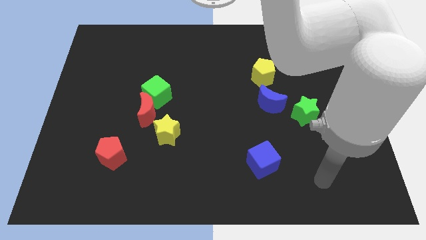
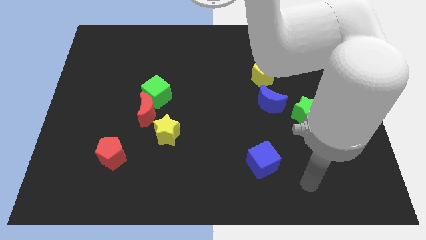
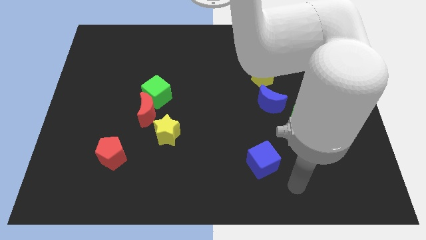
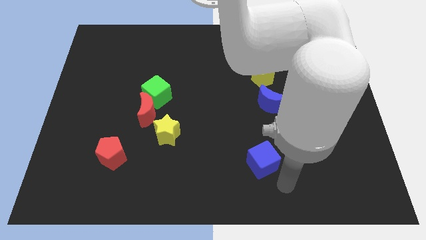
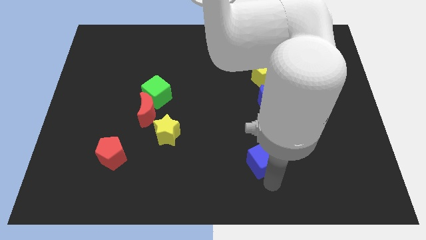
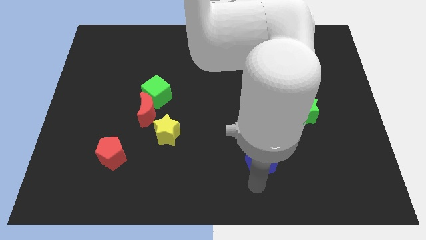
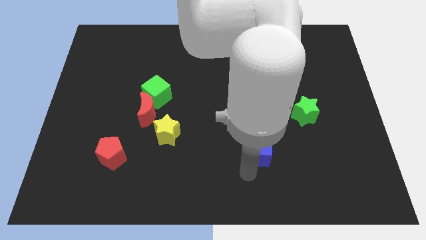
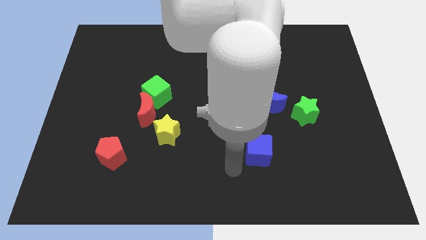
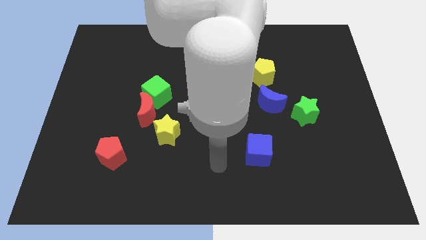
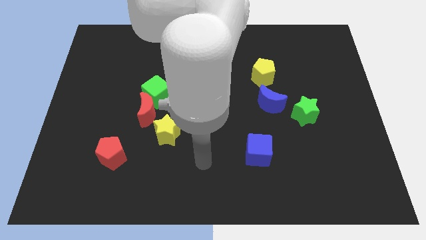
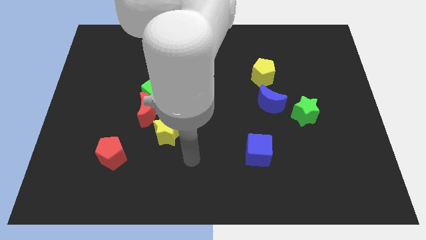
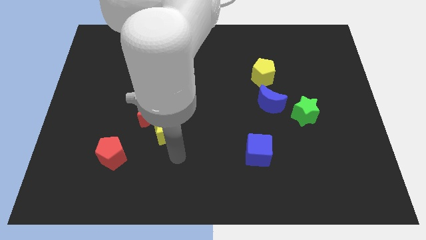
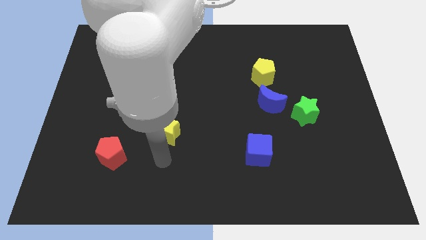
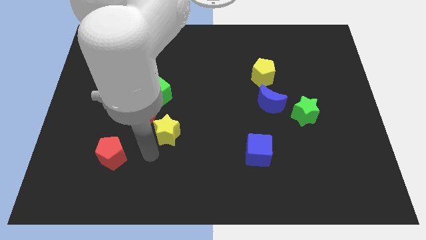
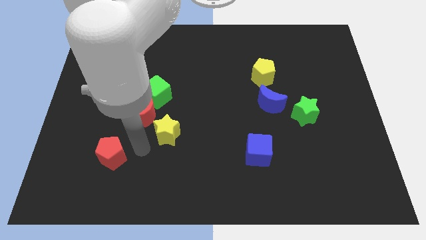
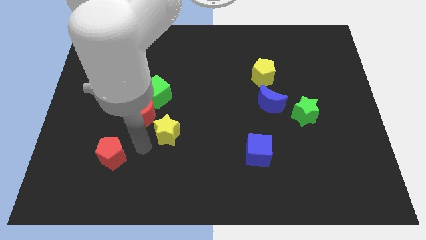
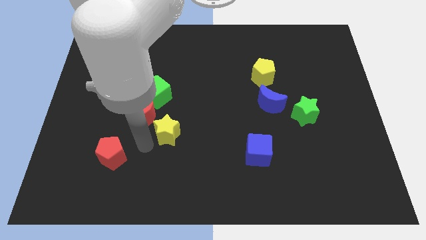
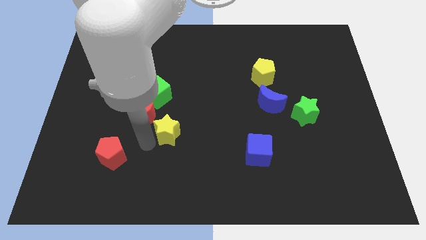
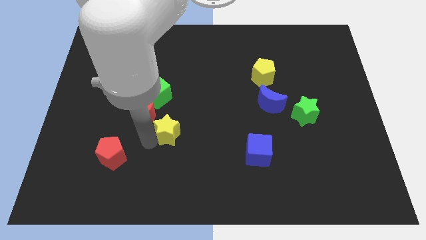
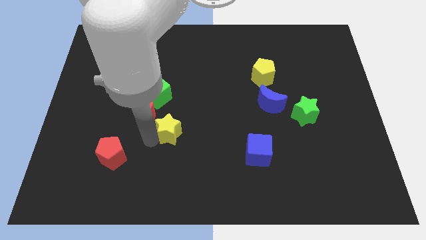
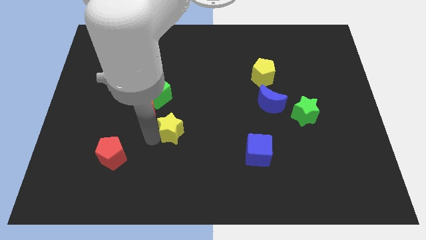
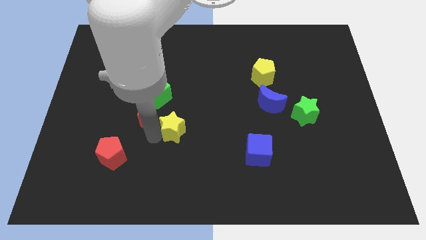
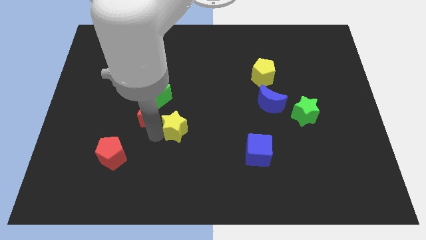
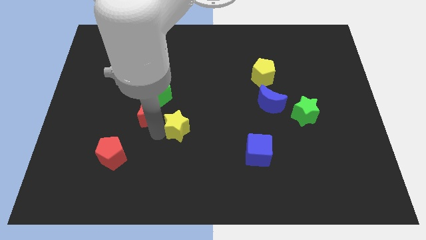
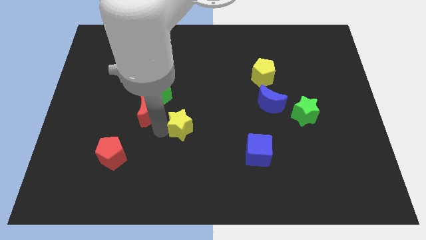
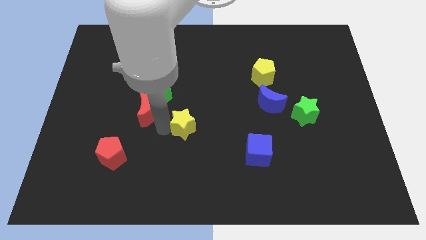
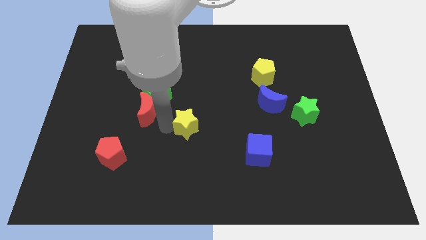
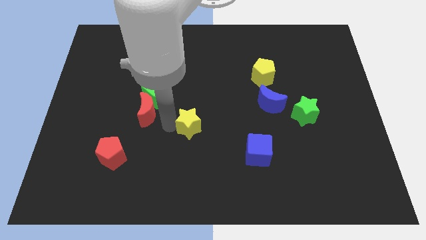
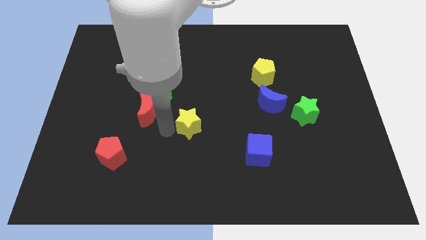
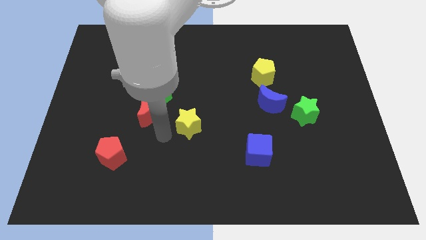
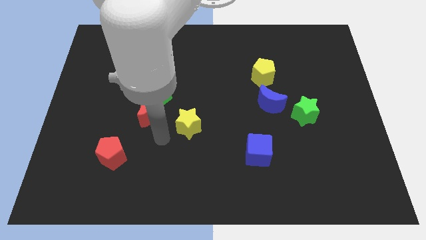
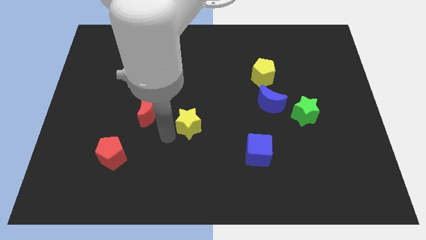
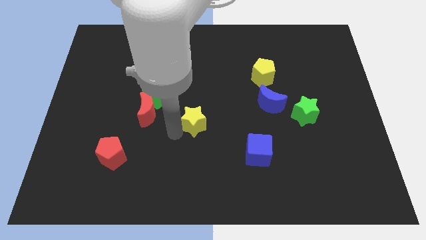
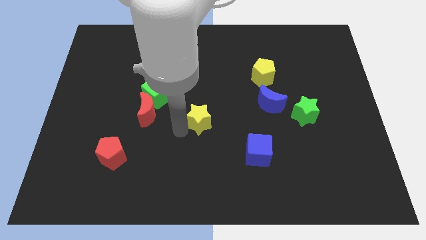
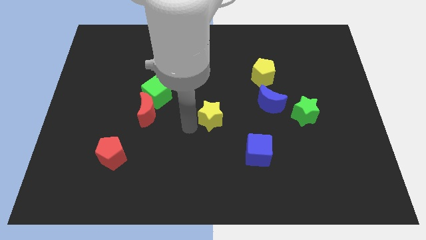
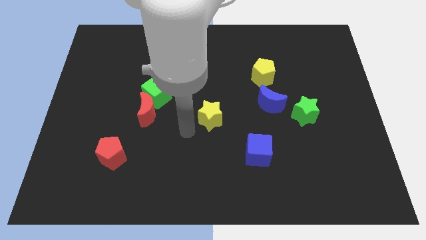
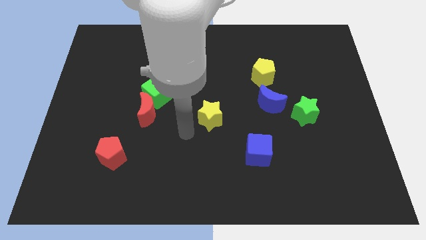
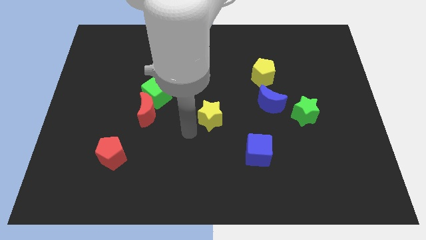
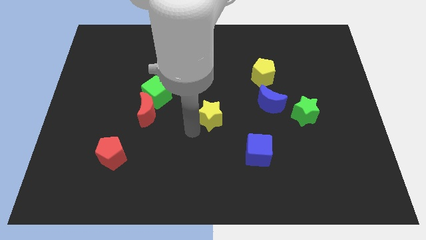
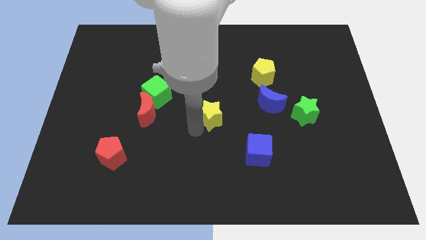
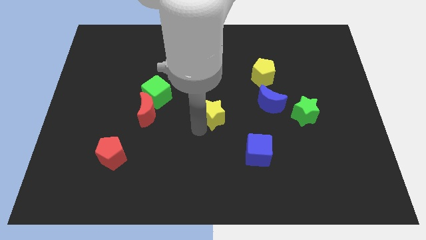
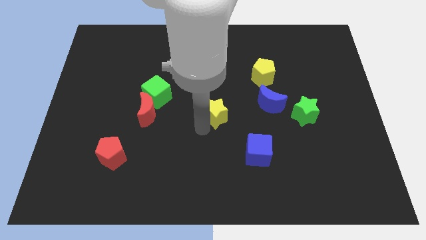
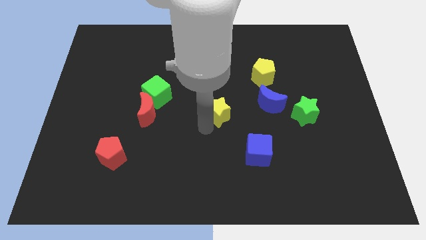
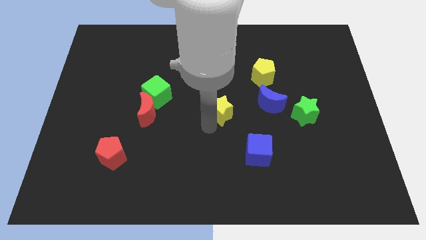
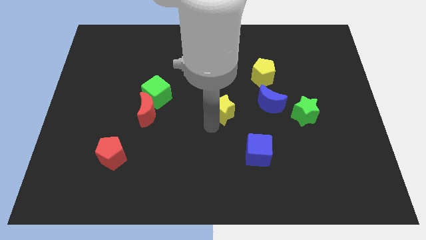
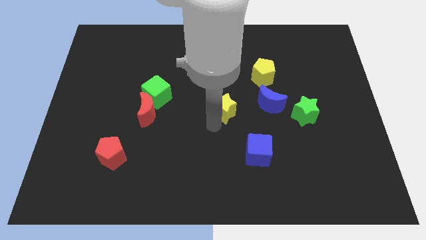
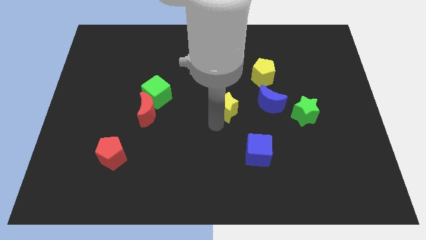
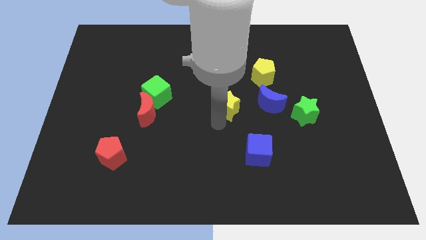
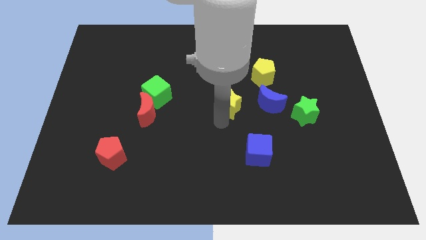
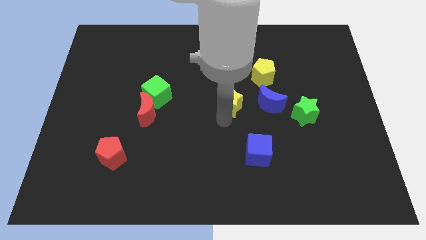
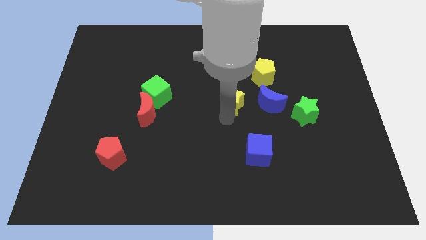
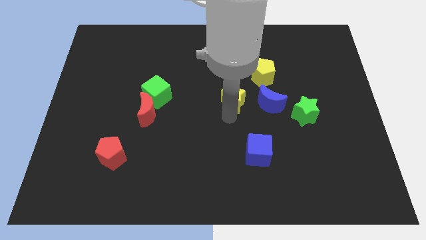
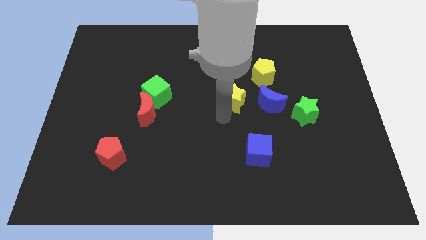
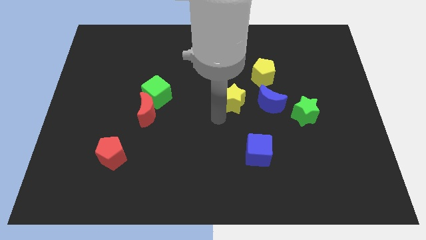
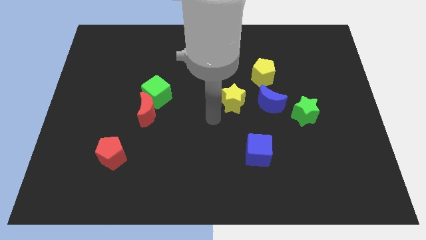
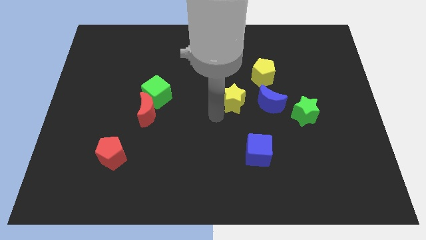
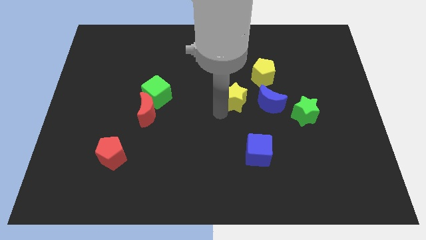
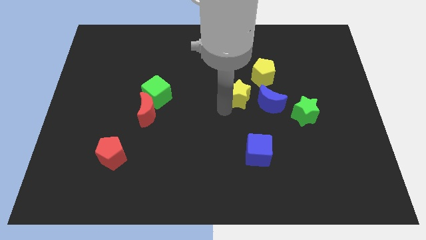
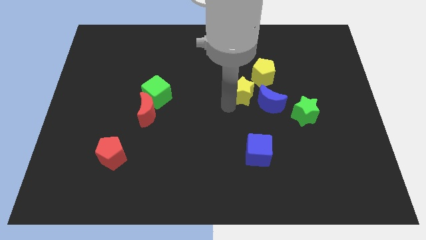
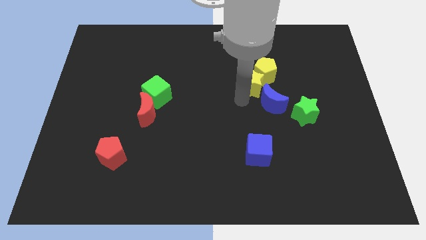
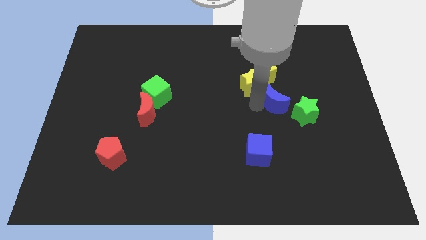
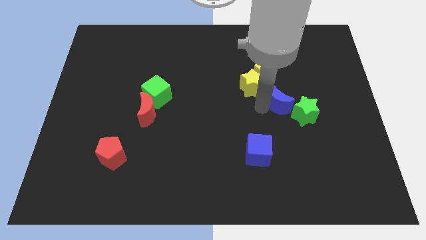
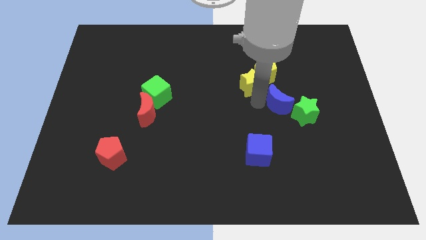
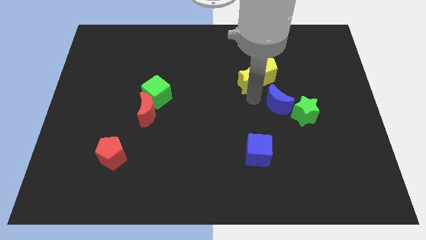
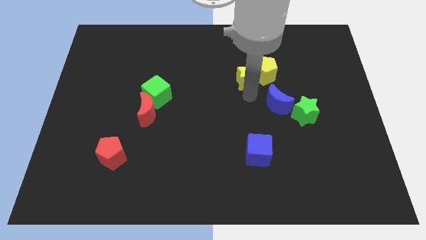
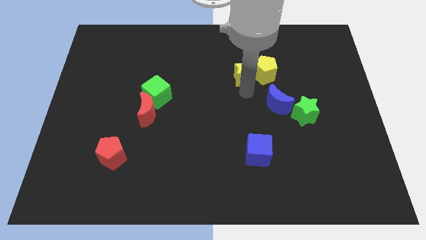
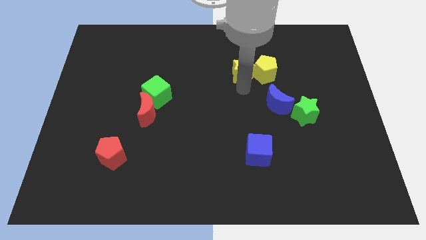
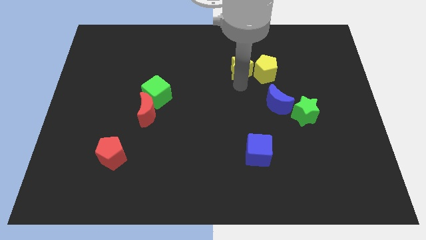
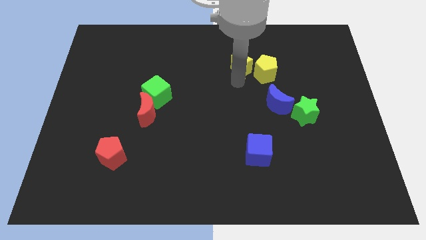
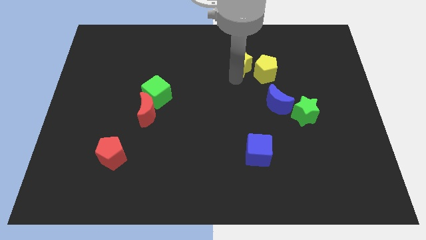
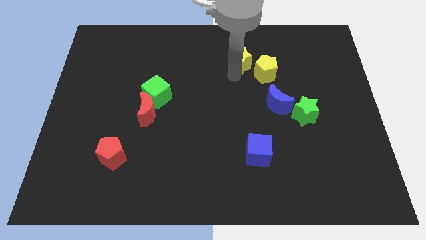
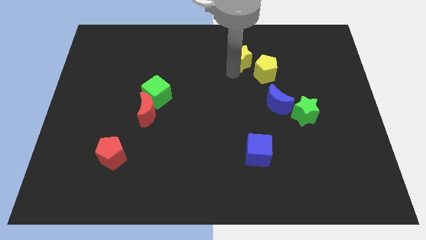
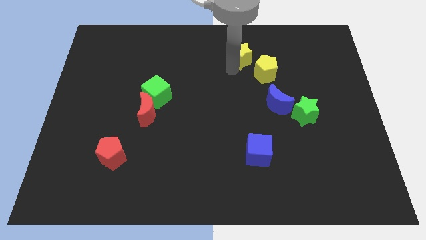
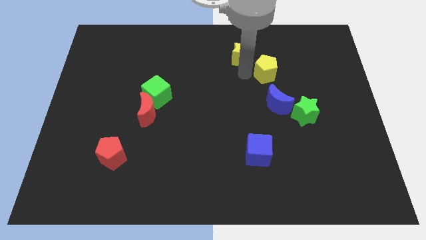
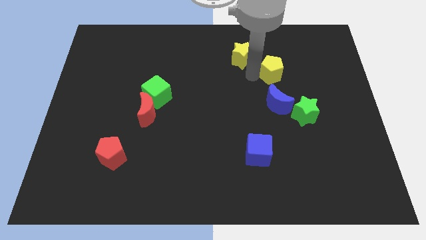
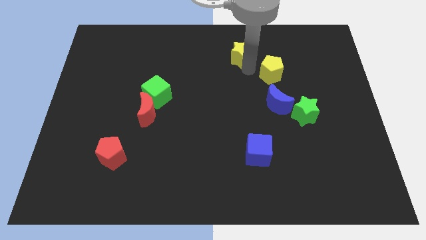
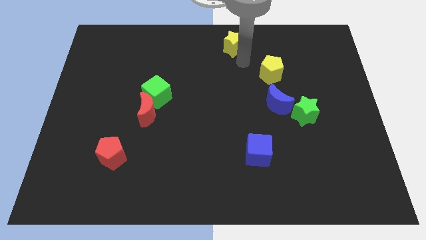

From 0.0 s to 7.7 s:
slide the yellow star to the top

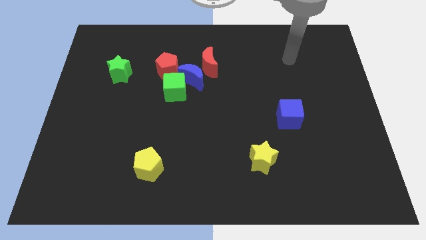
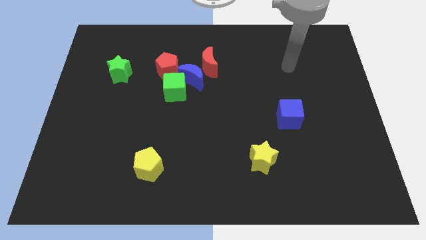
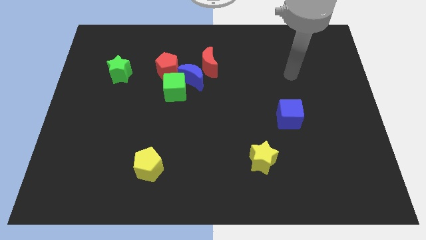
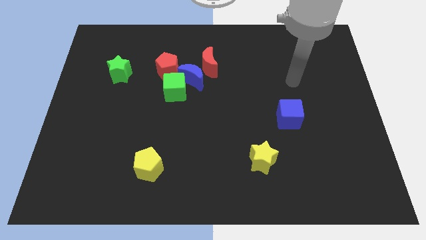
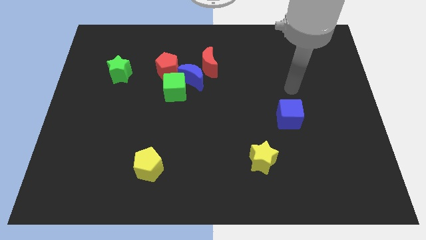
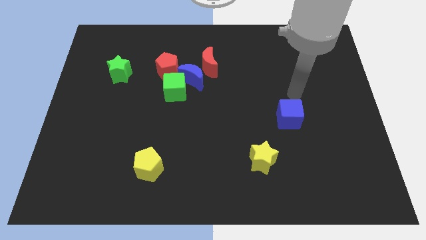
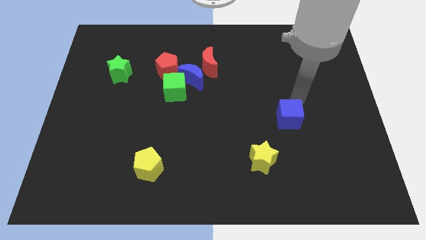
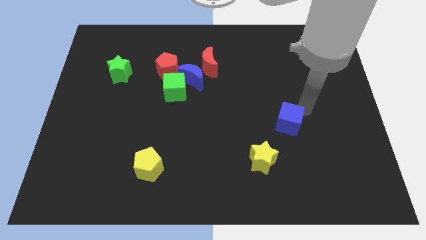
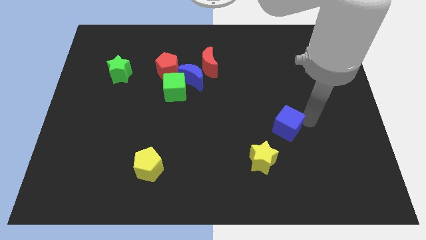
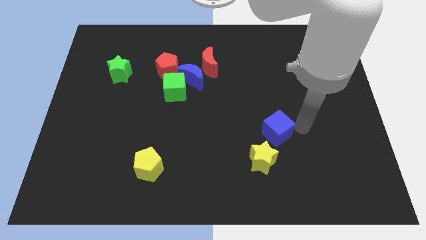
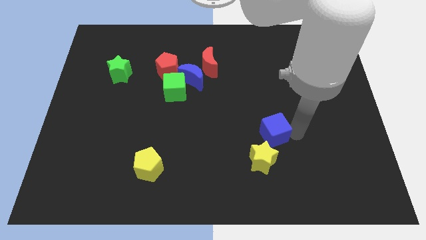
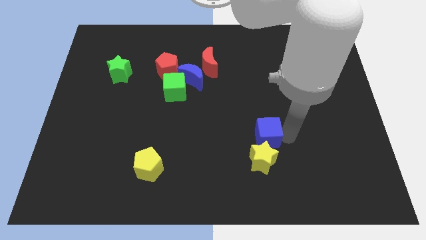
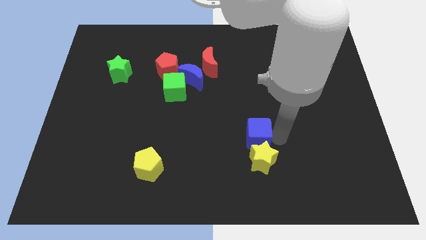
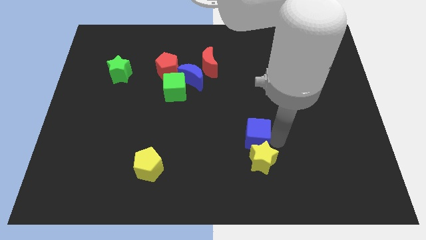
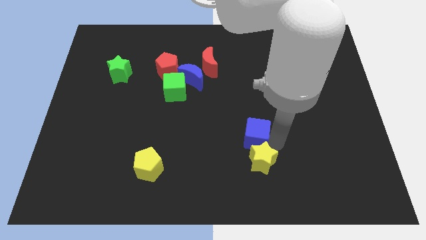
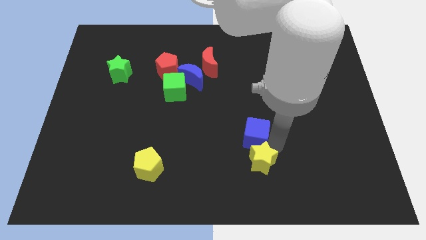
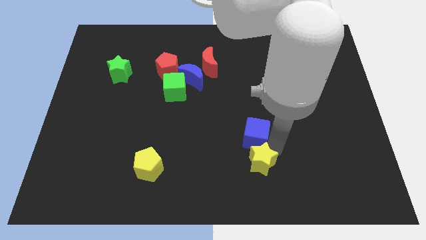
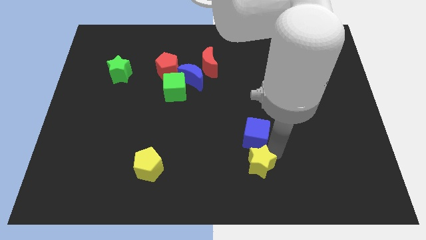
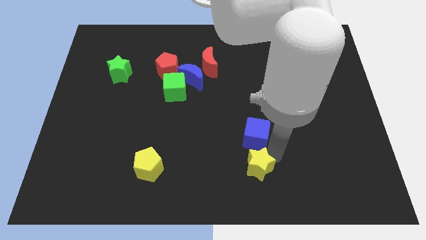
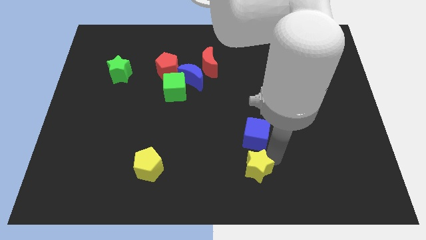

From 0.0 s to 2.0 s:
slide the yellow star to the bottom side
